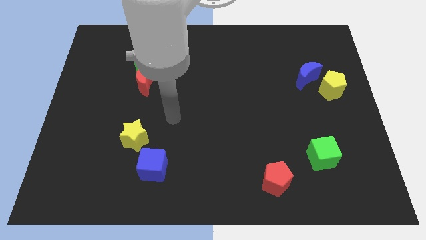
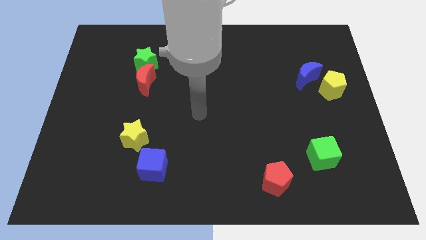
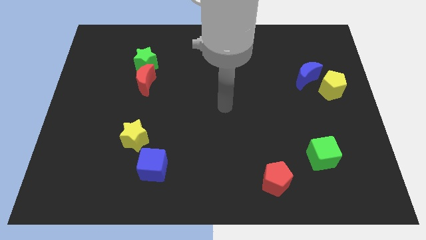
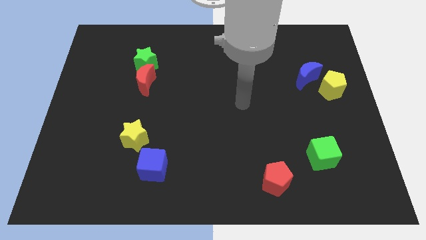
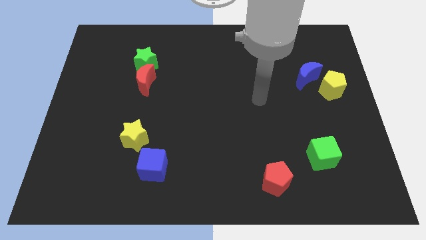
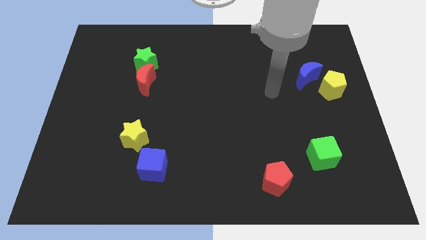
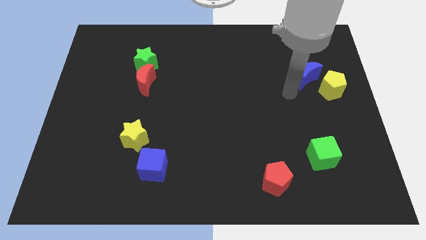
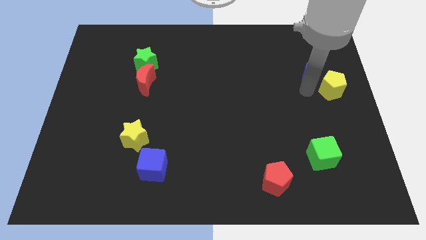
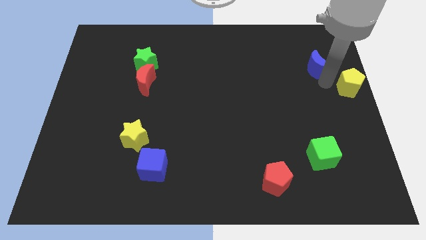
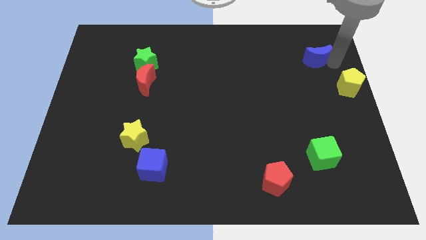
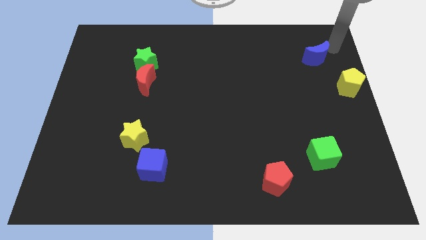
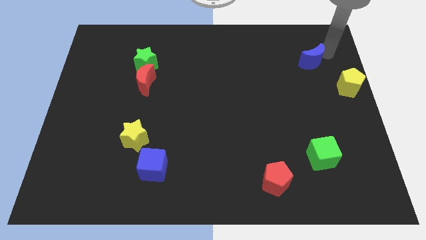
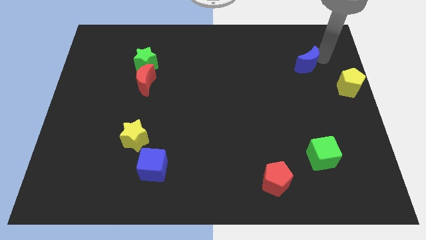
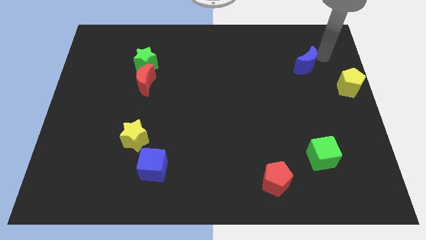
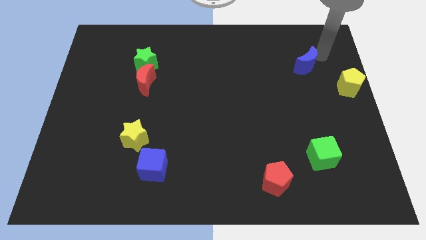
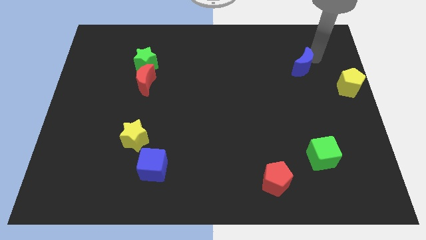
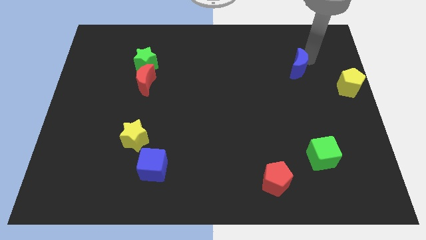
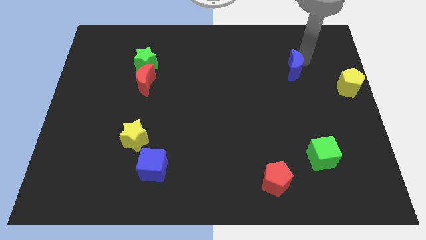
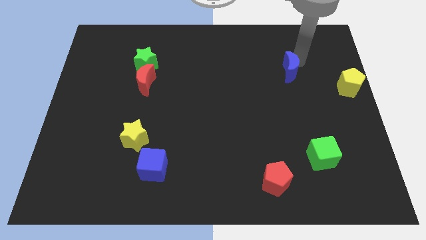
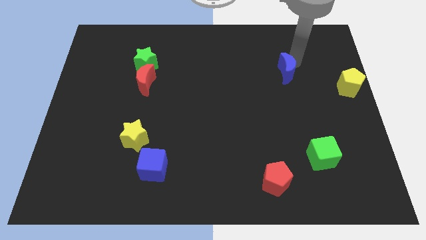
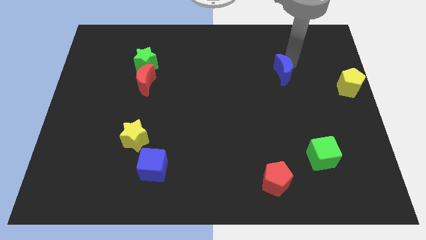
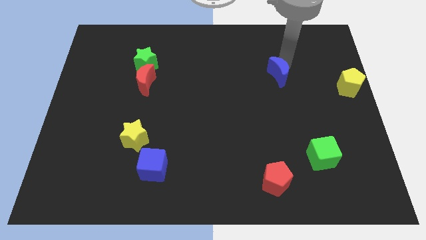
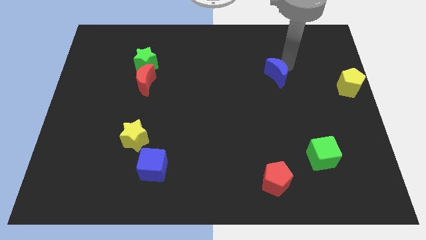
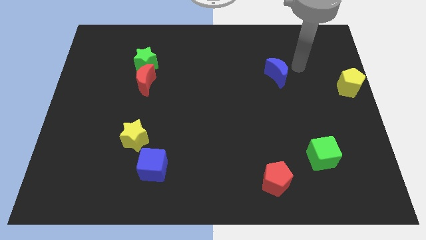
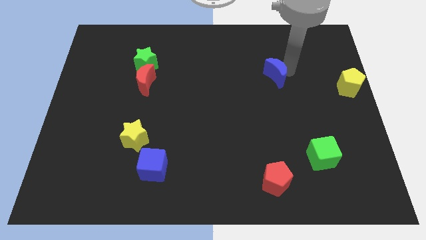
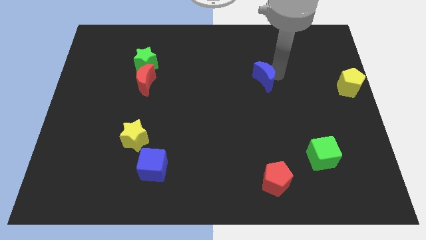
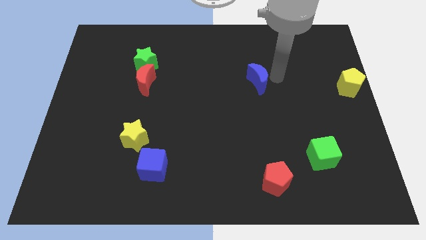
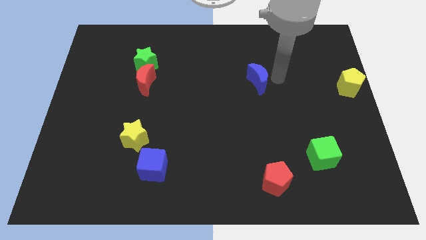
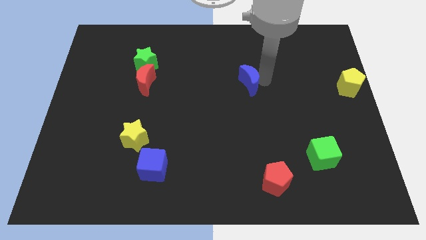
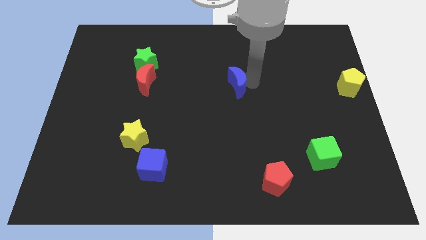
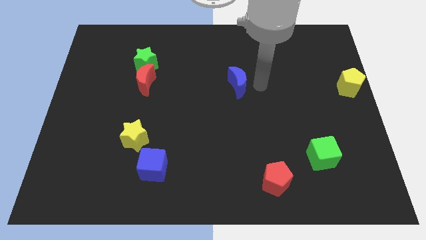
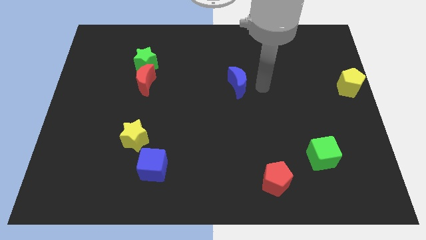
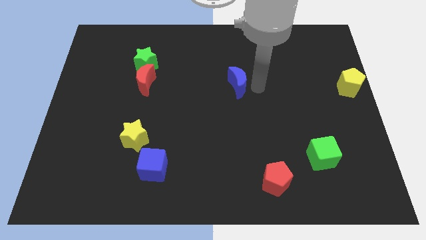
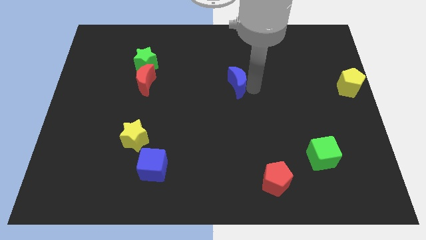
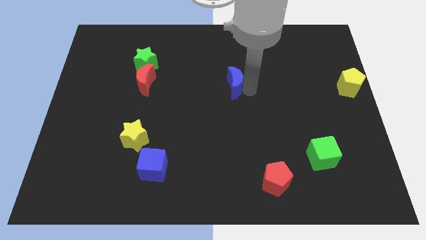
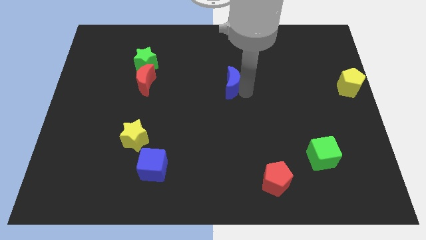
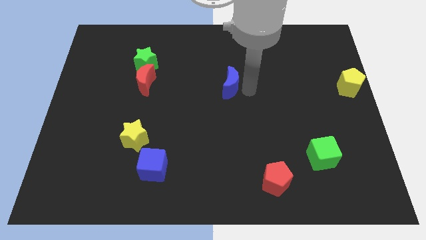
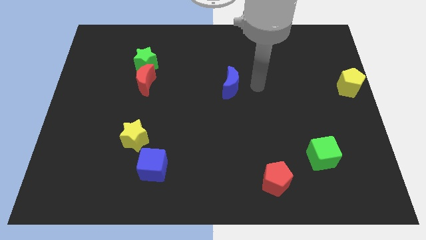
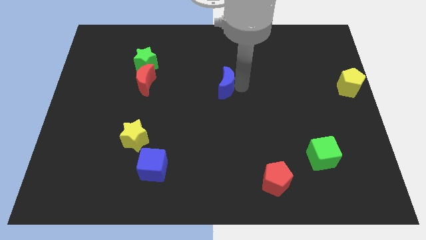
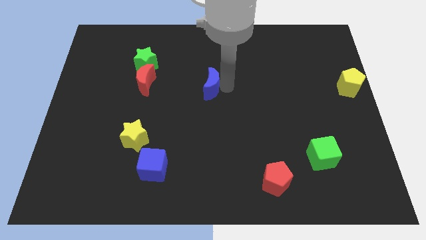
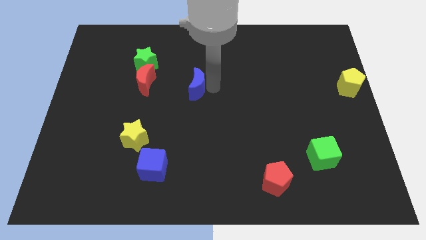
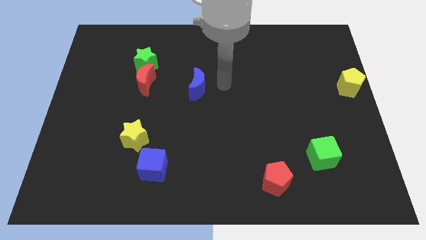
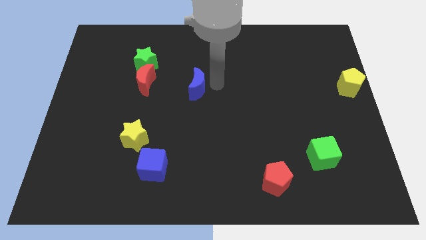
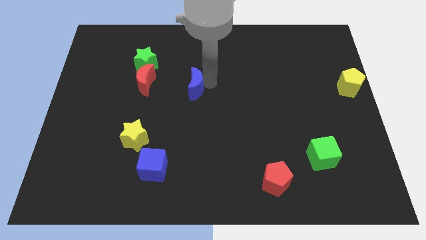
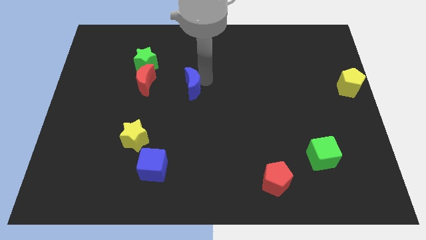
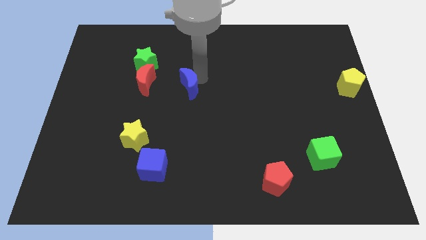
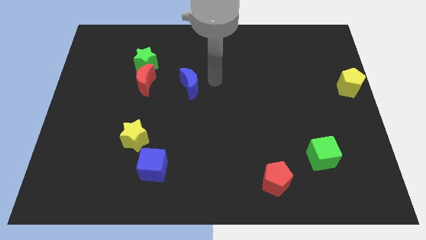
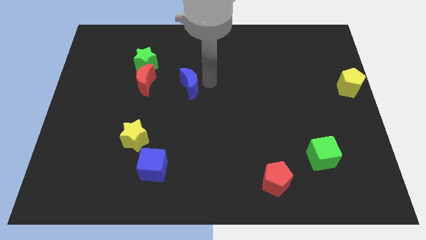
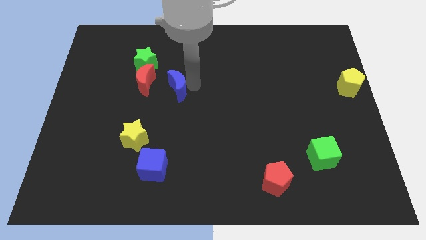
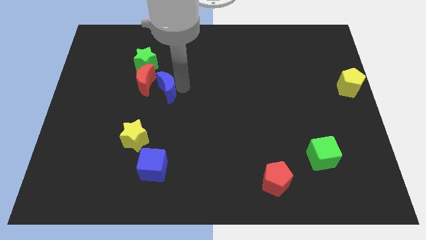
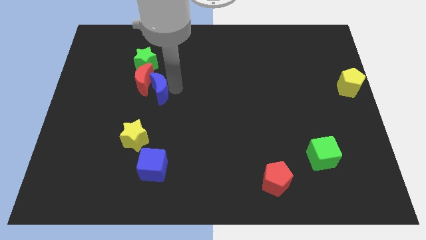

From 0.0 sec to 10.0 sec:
put the blue moon to the bottom side of the green star

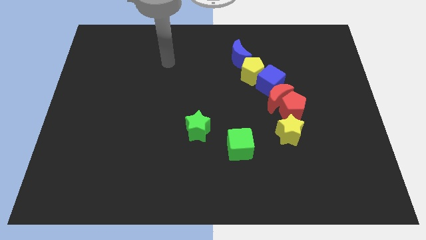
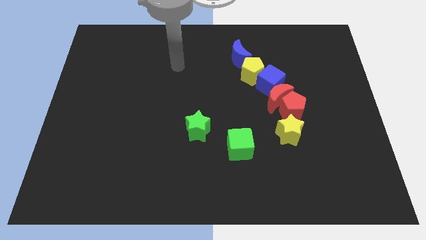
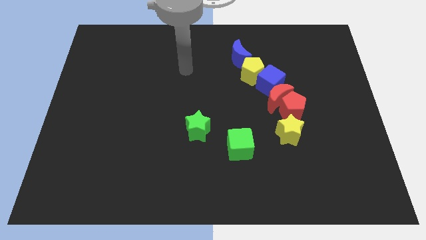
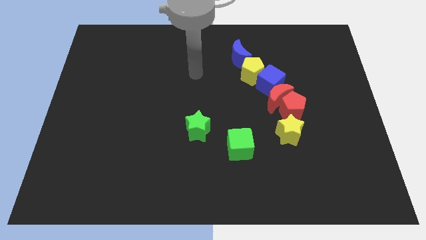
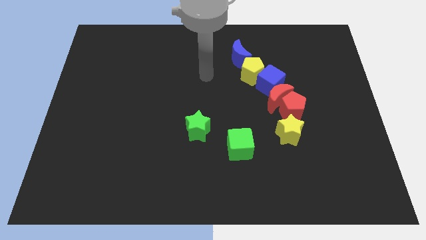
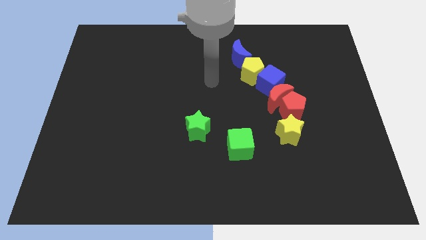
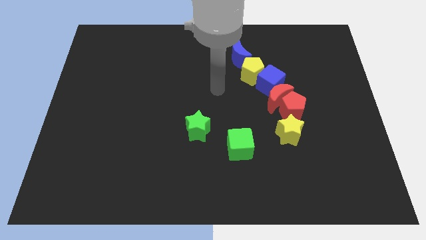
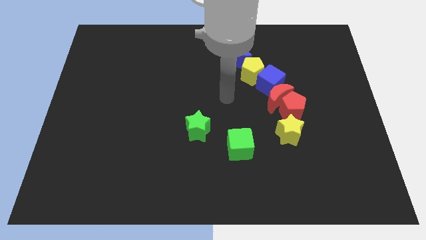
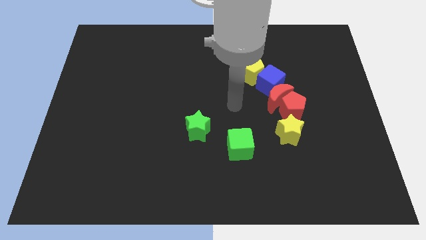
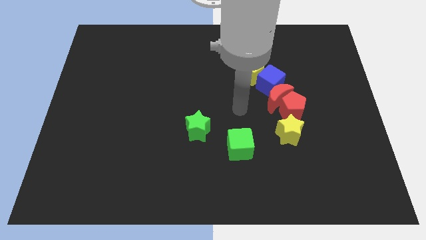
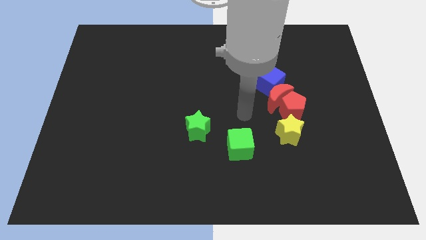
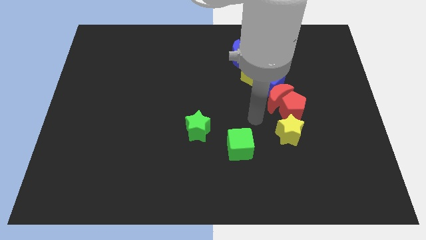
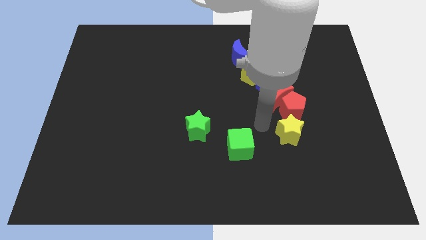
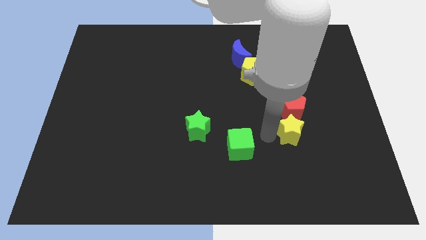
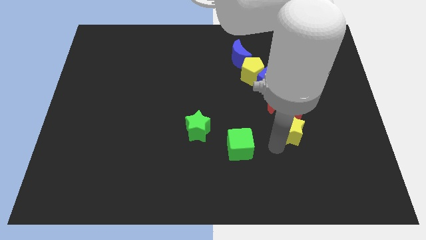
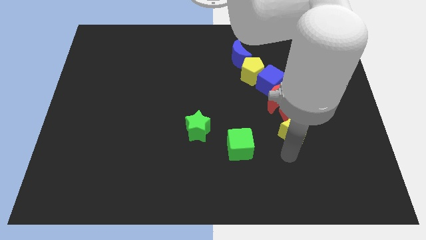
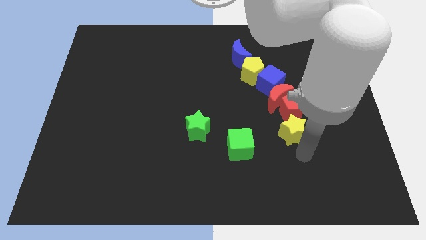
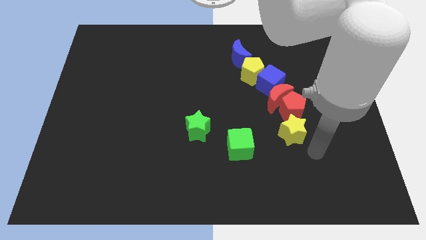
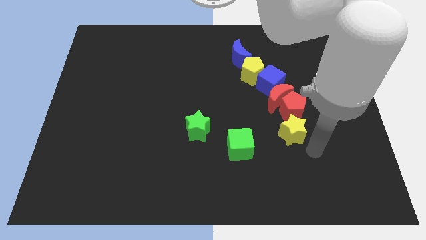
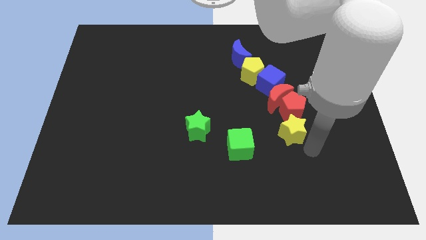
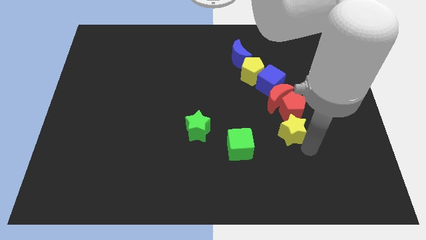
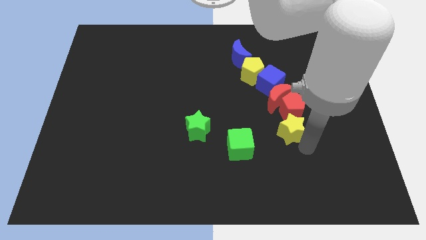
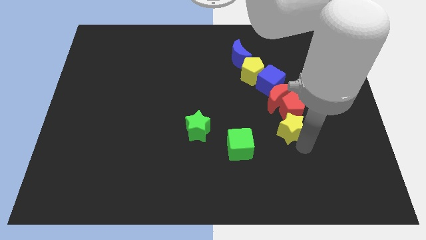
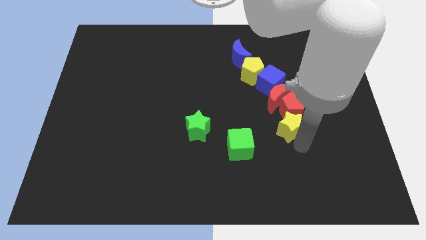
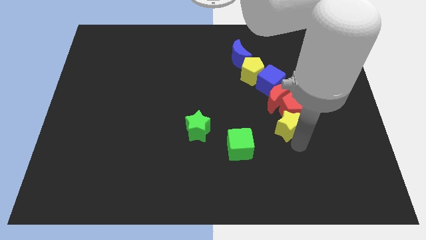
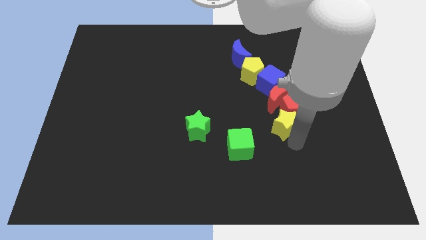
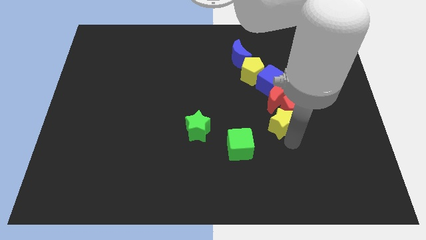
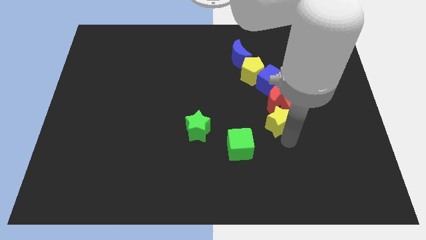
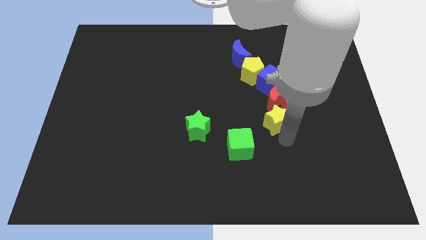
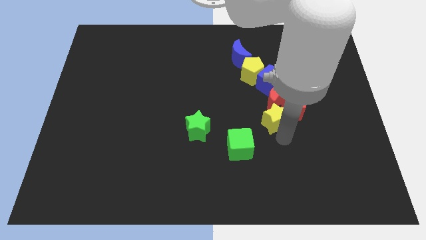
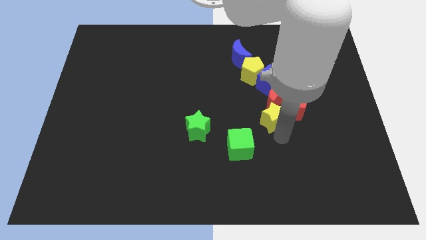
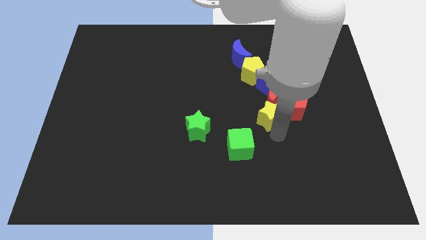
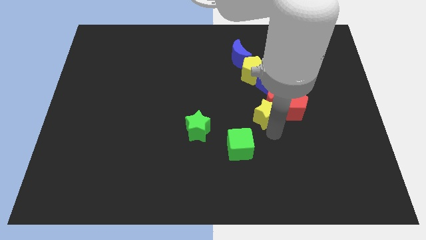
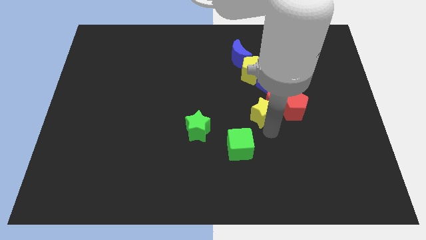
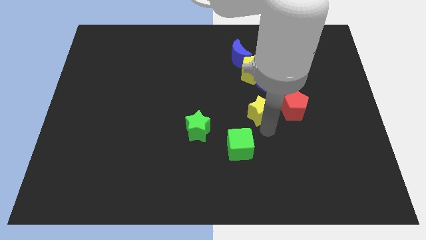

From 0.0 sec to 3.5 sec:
push the yellow star to the top of the green cube
